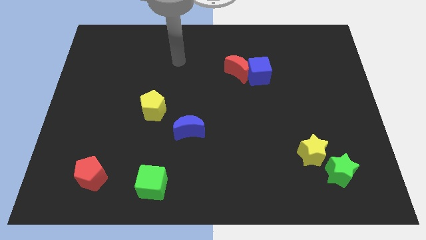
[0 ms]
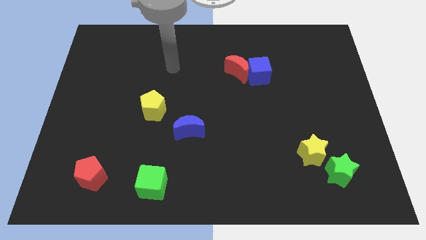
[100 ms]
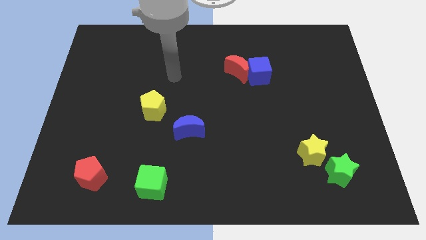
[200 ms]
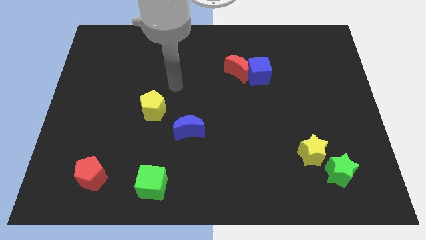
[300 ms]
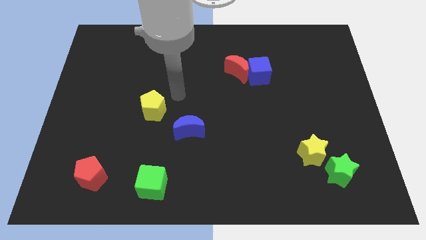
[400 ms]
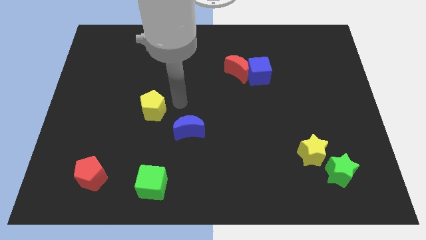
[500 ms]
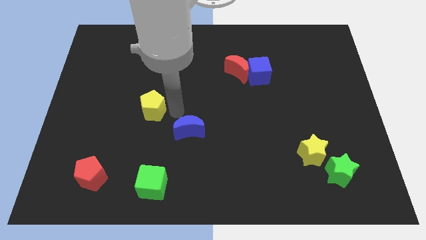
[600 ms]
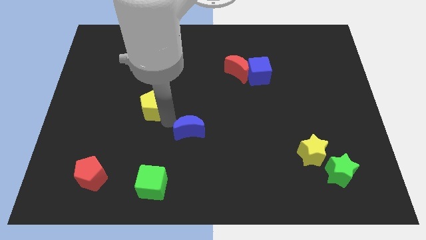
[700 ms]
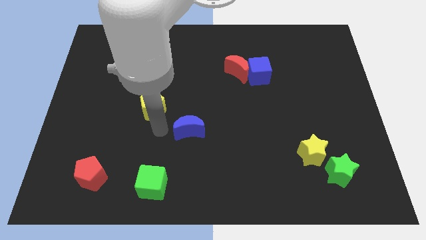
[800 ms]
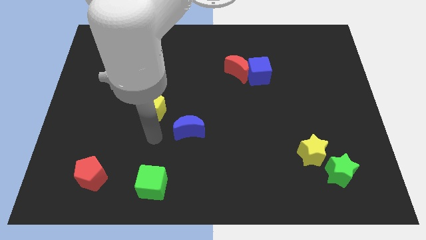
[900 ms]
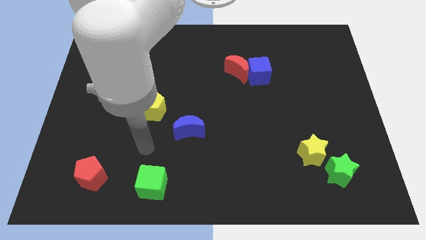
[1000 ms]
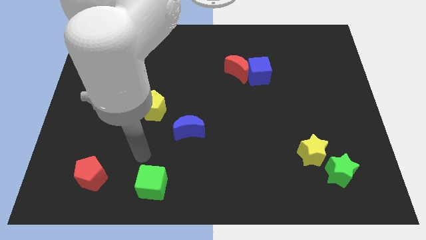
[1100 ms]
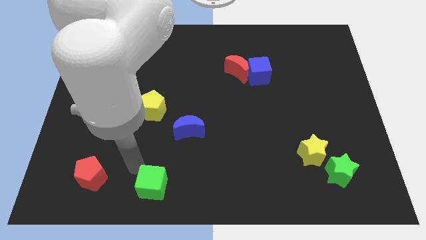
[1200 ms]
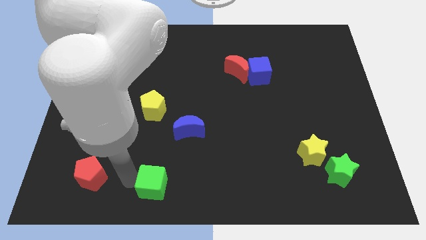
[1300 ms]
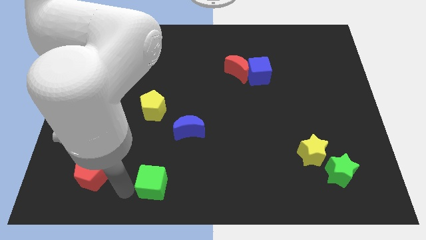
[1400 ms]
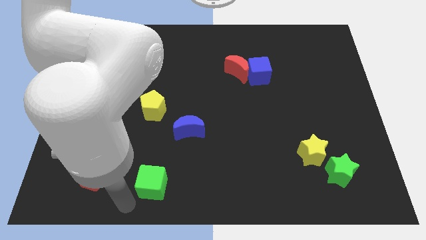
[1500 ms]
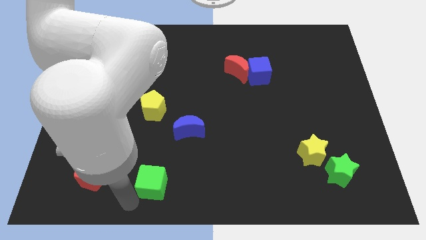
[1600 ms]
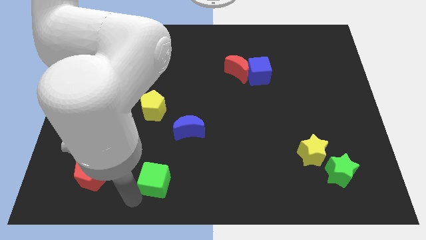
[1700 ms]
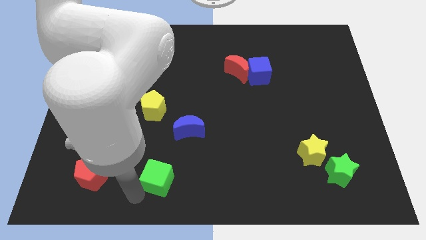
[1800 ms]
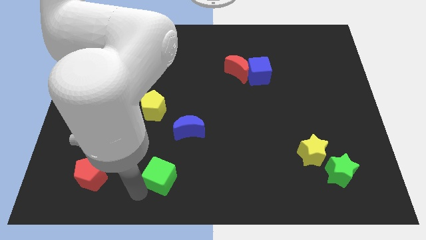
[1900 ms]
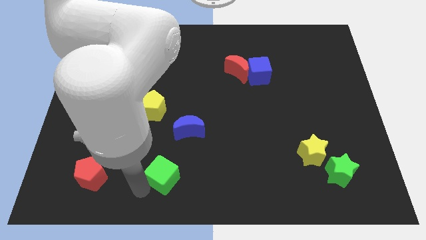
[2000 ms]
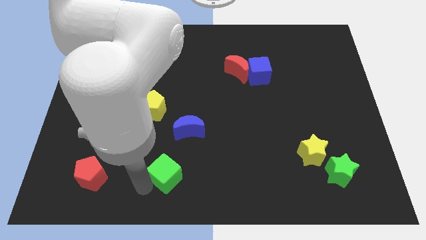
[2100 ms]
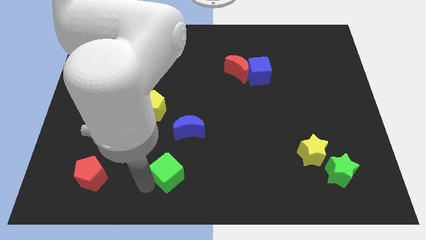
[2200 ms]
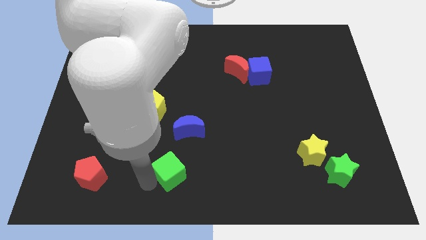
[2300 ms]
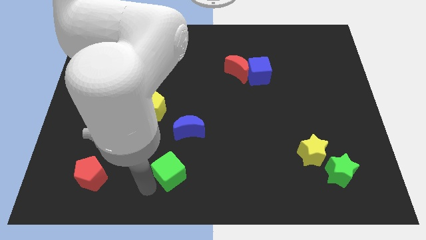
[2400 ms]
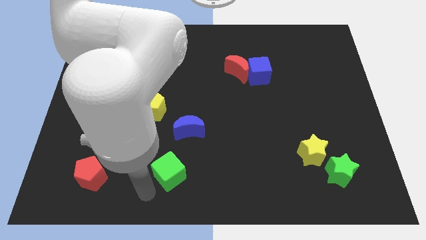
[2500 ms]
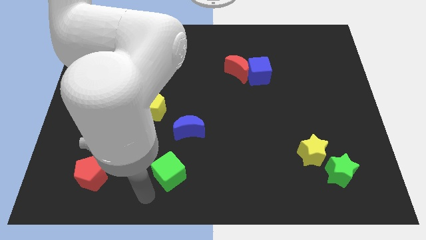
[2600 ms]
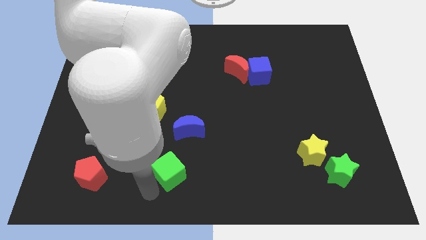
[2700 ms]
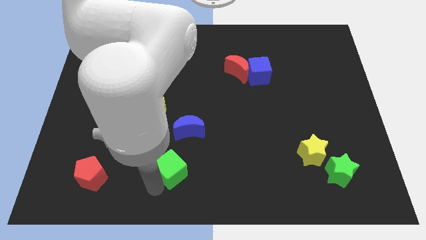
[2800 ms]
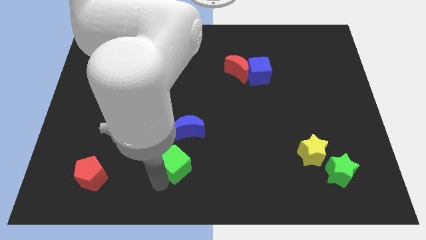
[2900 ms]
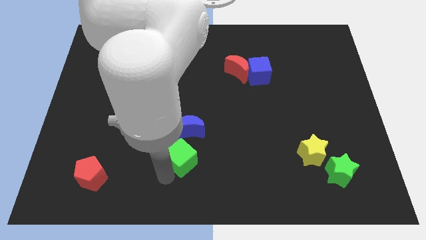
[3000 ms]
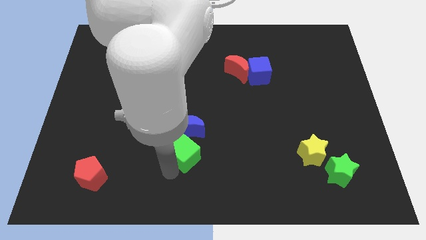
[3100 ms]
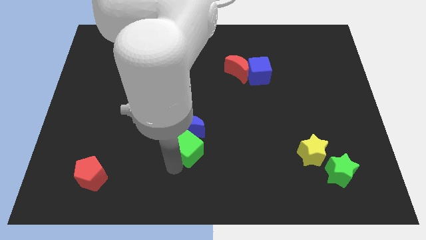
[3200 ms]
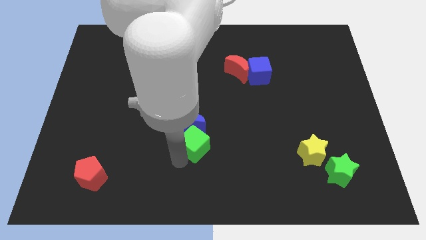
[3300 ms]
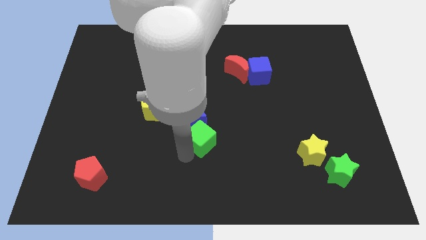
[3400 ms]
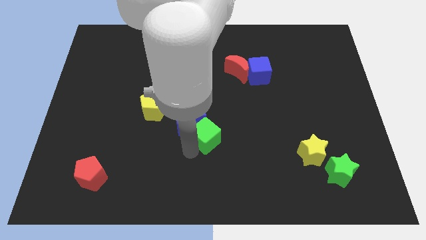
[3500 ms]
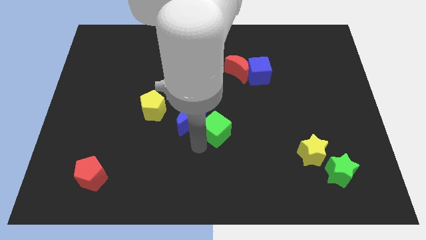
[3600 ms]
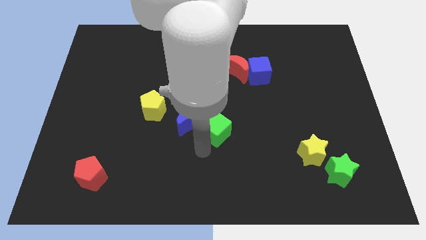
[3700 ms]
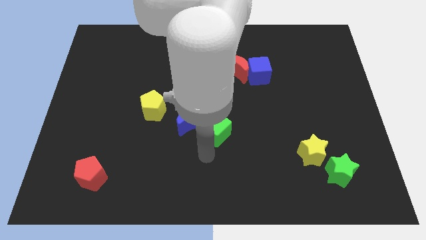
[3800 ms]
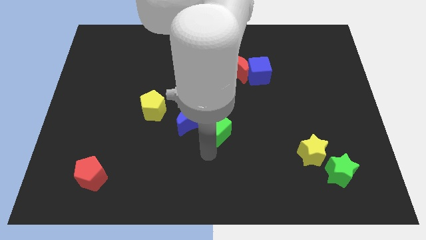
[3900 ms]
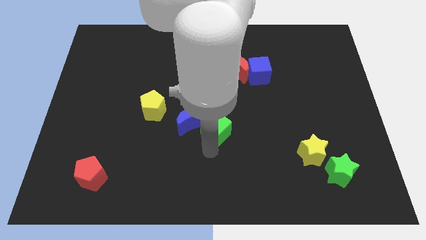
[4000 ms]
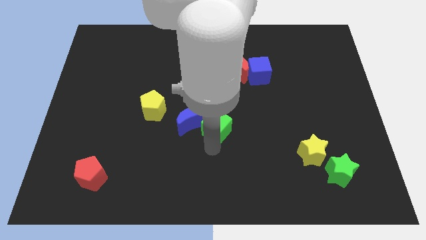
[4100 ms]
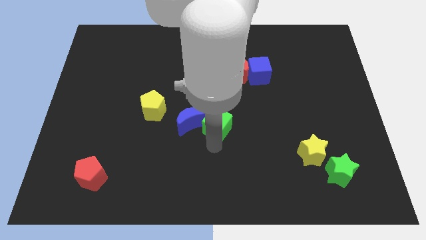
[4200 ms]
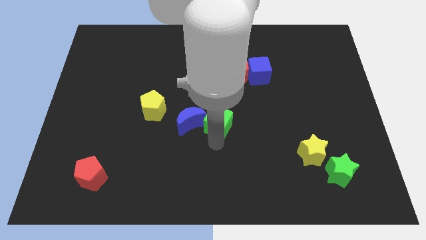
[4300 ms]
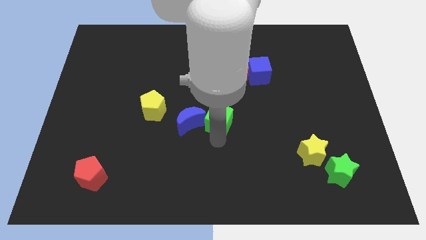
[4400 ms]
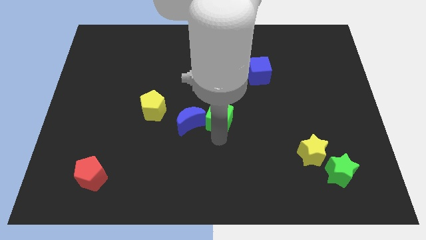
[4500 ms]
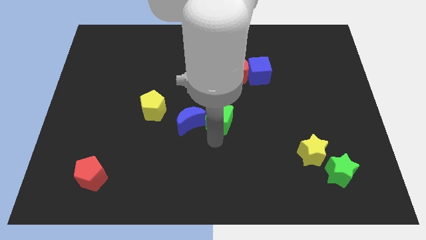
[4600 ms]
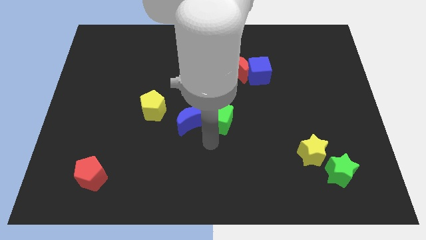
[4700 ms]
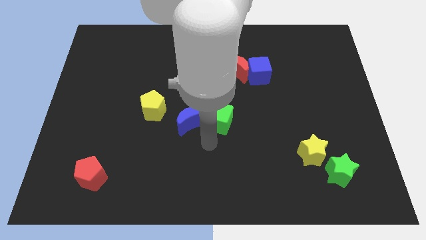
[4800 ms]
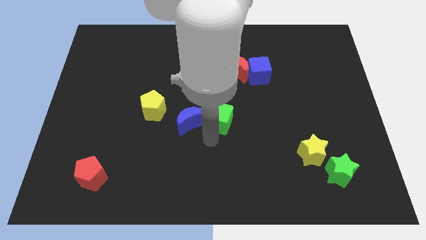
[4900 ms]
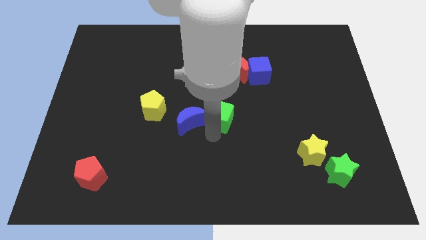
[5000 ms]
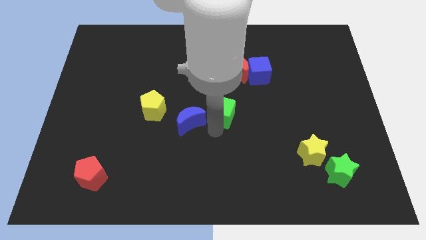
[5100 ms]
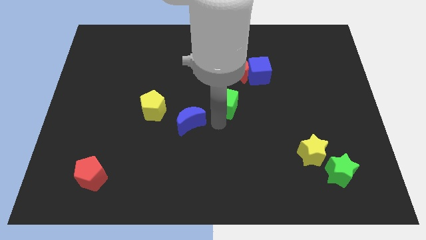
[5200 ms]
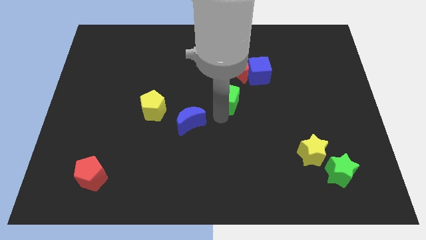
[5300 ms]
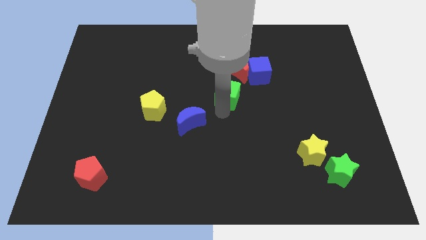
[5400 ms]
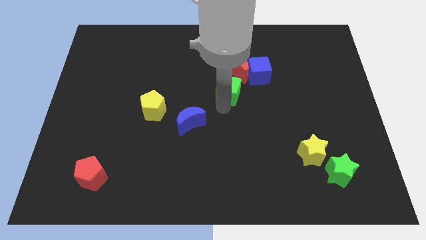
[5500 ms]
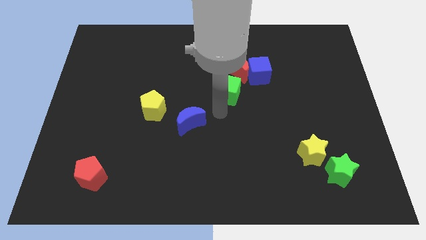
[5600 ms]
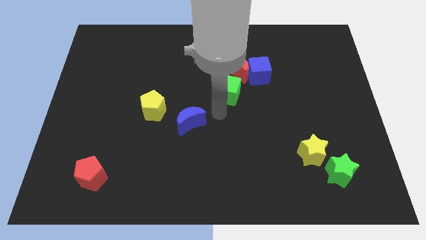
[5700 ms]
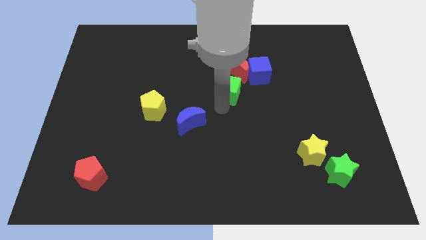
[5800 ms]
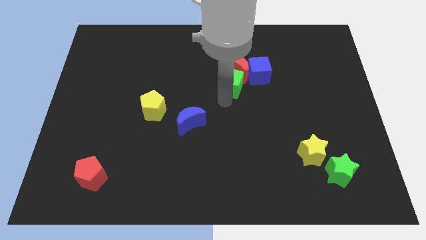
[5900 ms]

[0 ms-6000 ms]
push the green cube close to the red moon

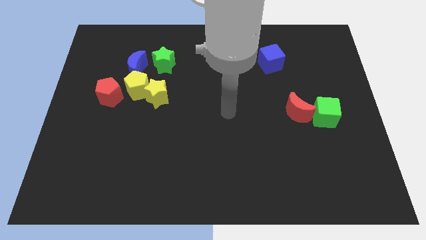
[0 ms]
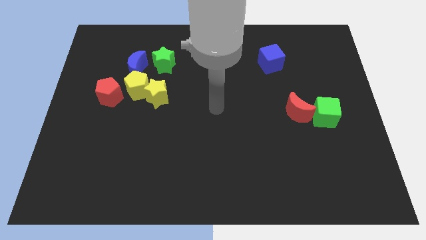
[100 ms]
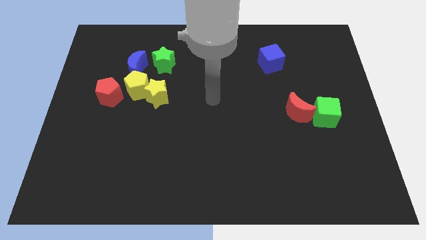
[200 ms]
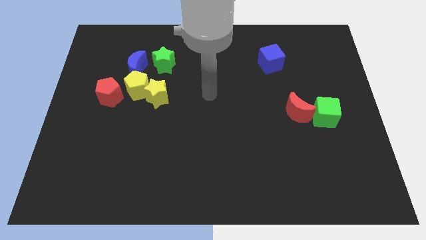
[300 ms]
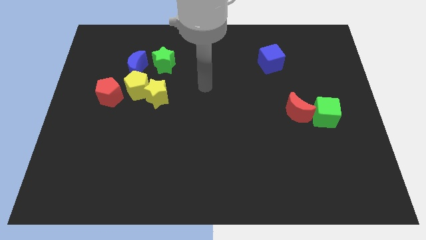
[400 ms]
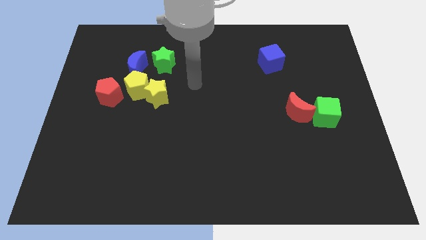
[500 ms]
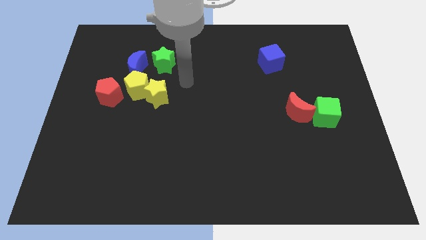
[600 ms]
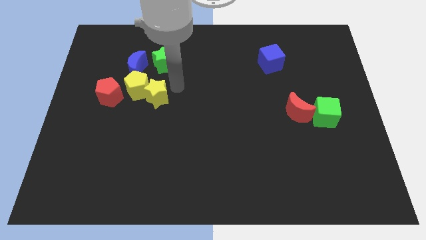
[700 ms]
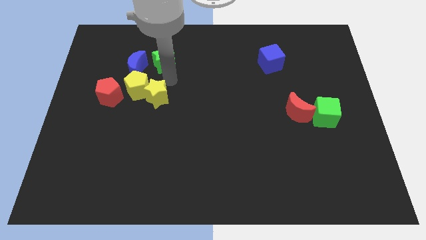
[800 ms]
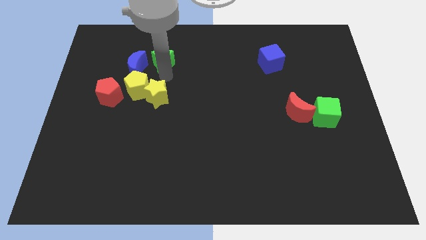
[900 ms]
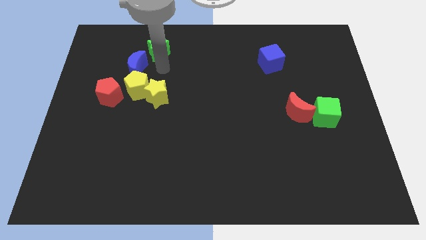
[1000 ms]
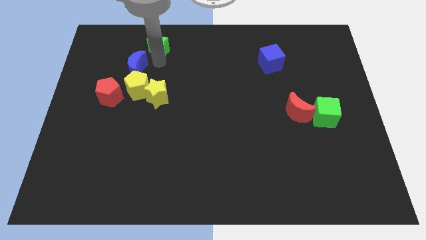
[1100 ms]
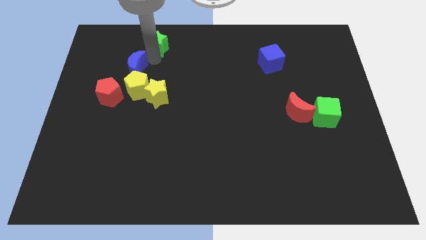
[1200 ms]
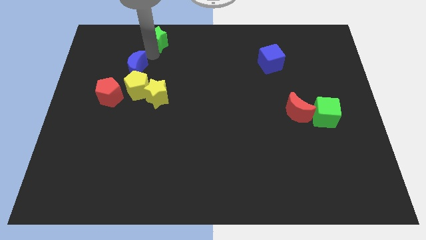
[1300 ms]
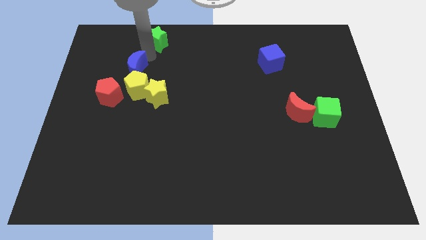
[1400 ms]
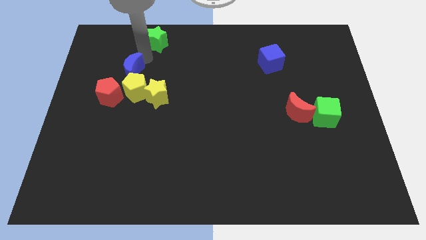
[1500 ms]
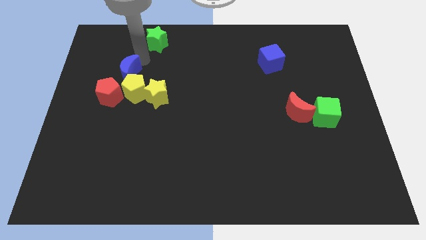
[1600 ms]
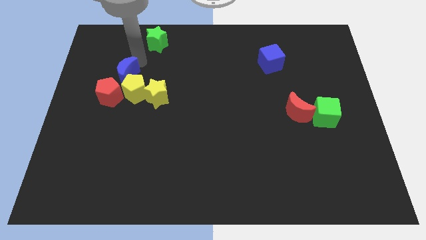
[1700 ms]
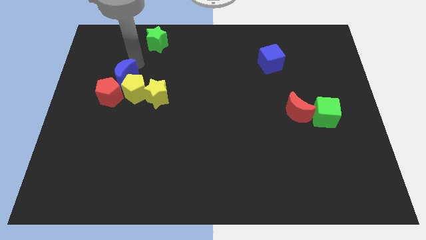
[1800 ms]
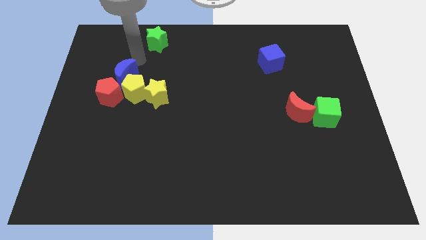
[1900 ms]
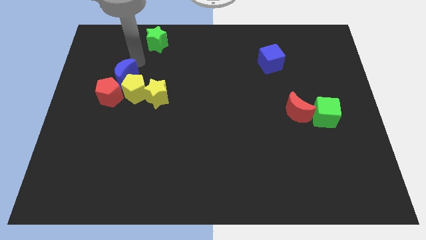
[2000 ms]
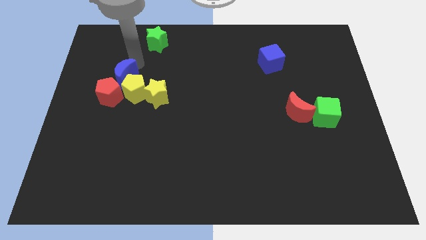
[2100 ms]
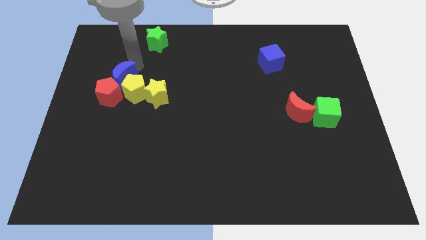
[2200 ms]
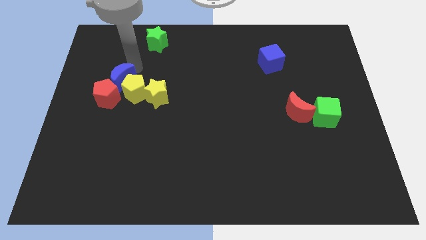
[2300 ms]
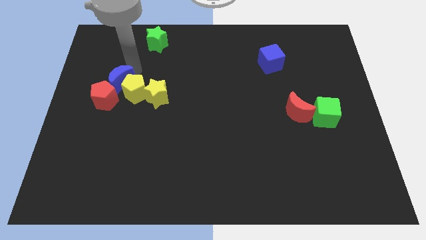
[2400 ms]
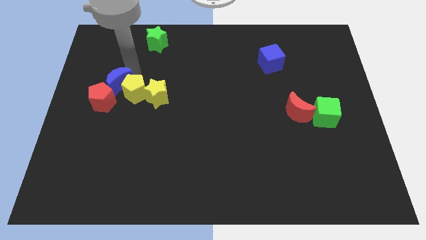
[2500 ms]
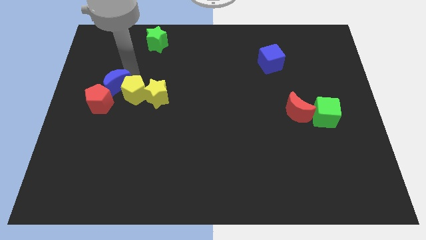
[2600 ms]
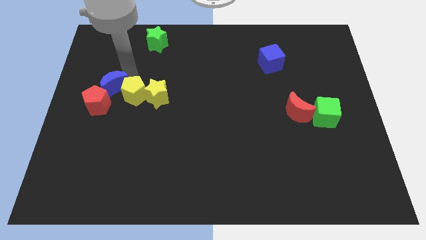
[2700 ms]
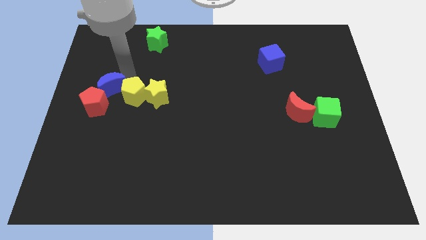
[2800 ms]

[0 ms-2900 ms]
push the blue moon close to the red pentagon
